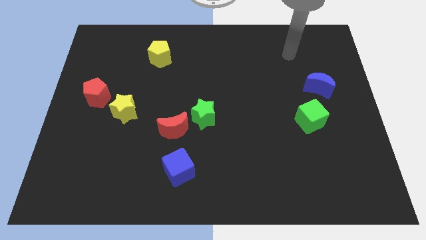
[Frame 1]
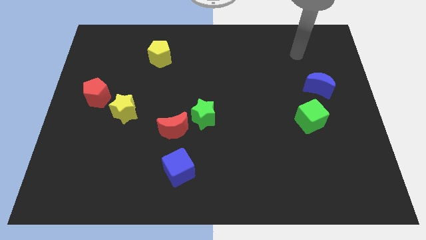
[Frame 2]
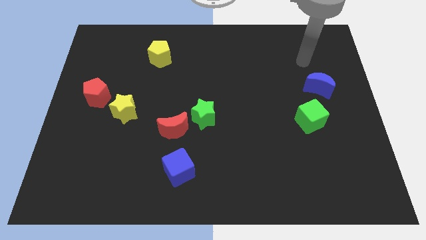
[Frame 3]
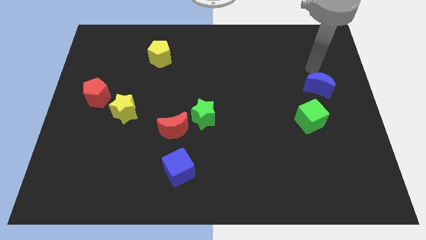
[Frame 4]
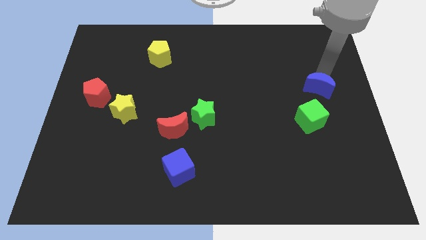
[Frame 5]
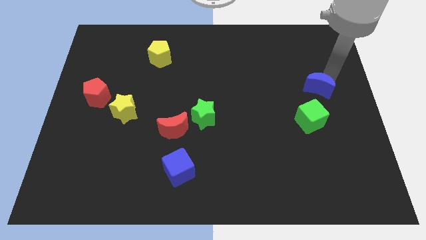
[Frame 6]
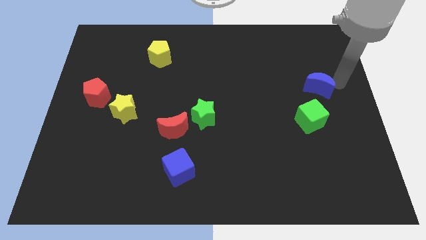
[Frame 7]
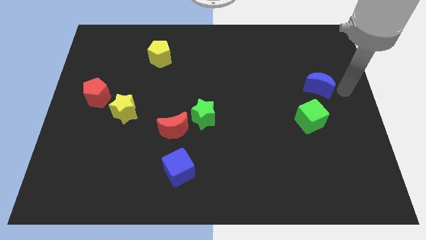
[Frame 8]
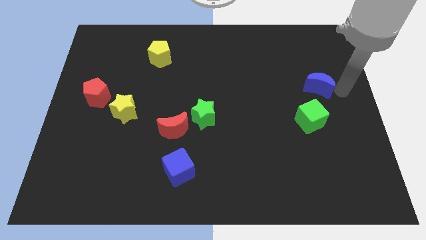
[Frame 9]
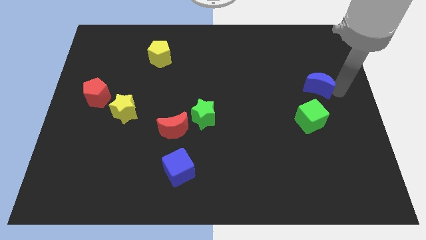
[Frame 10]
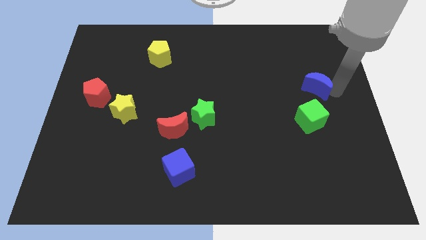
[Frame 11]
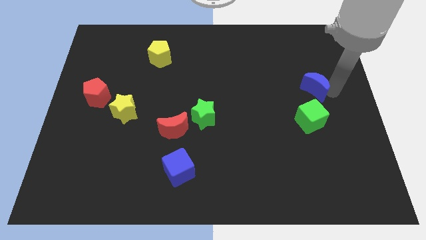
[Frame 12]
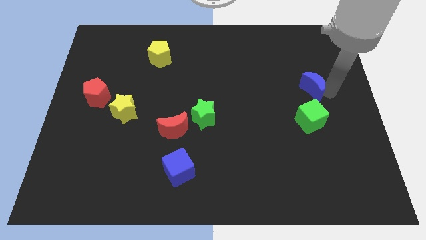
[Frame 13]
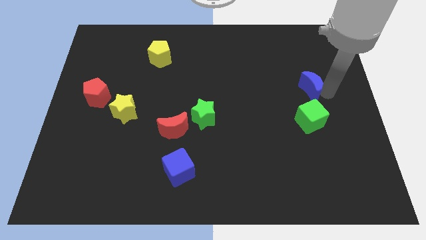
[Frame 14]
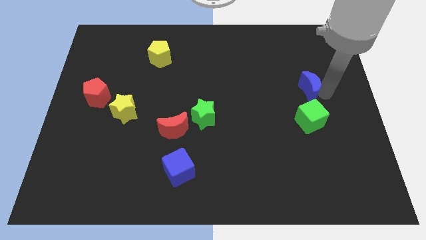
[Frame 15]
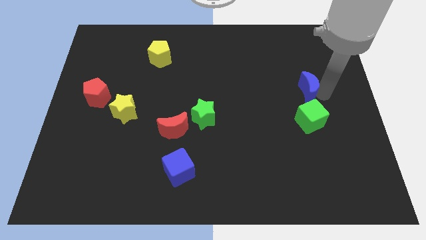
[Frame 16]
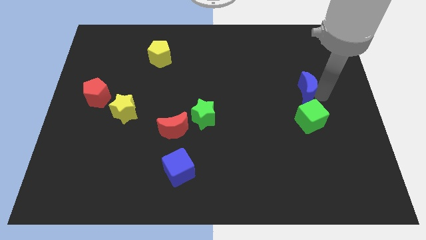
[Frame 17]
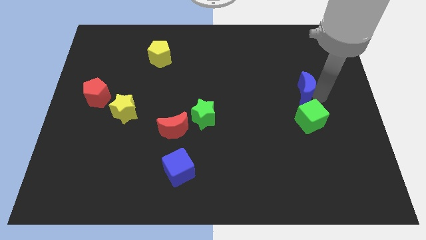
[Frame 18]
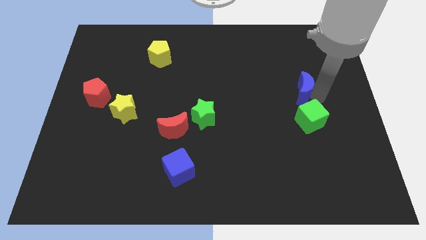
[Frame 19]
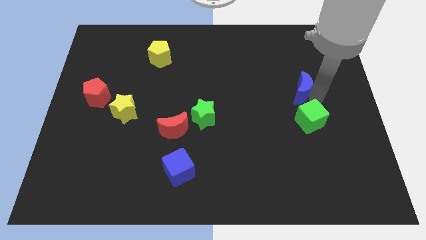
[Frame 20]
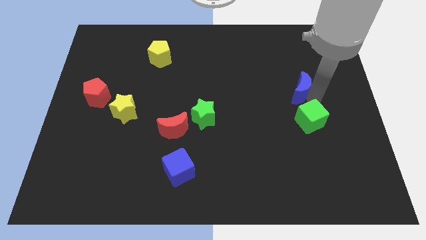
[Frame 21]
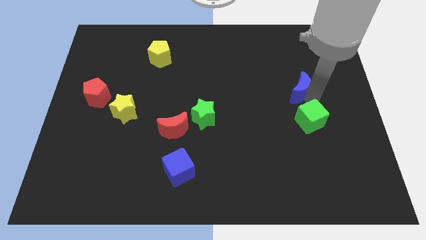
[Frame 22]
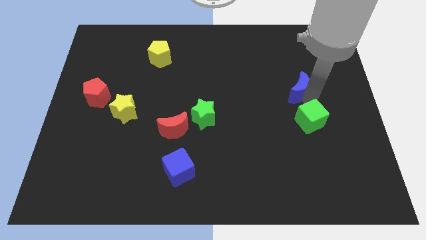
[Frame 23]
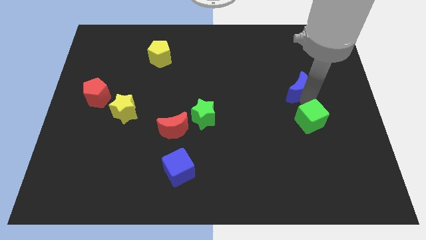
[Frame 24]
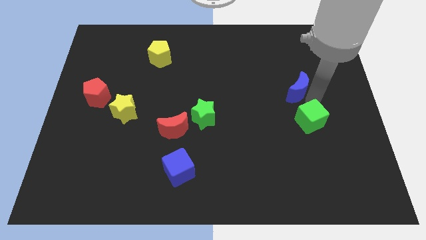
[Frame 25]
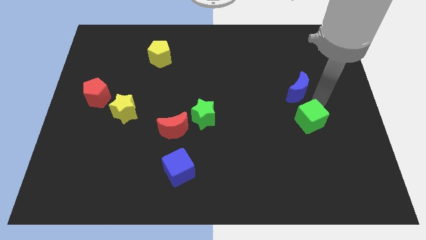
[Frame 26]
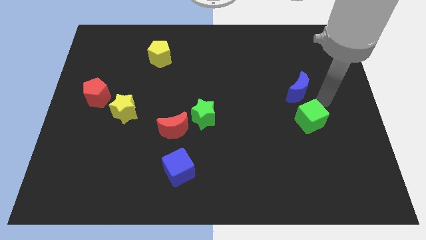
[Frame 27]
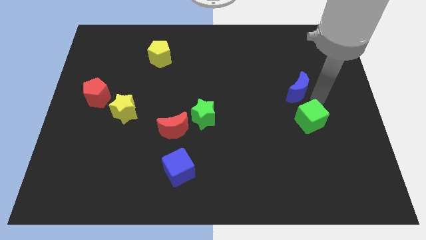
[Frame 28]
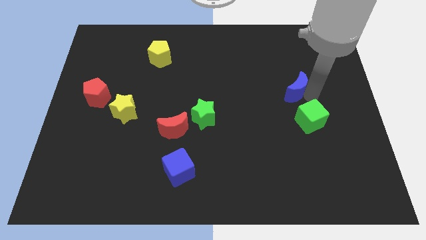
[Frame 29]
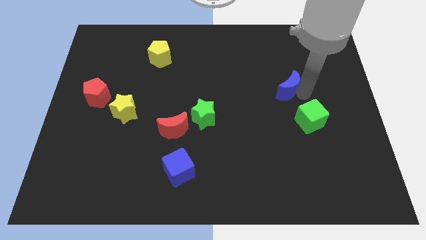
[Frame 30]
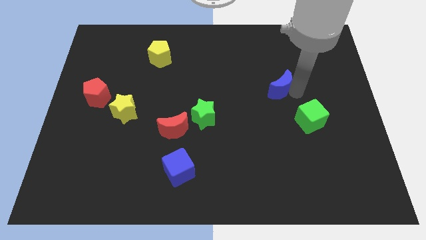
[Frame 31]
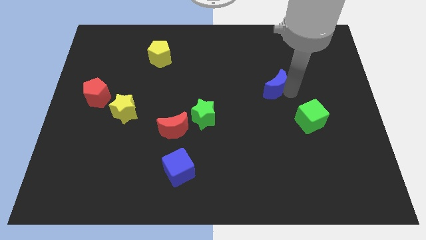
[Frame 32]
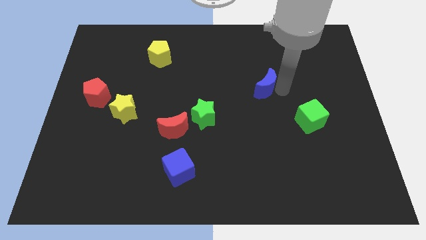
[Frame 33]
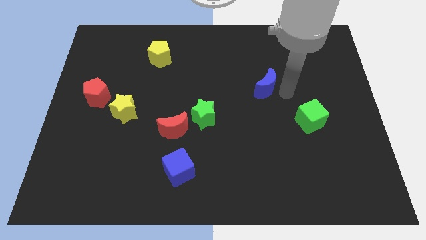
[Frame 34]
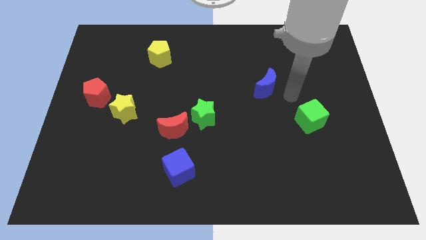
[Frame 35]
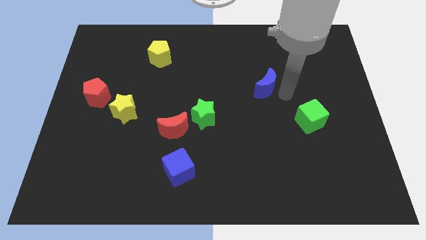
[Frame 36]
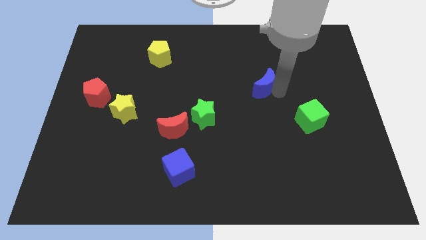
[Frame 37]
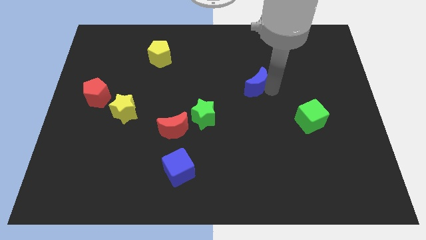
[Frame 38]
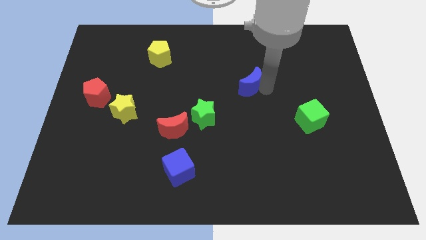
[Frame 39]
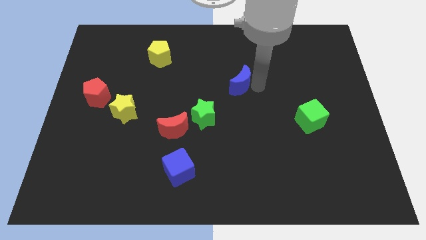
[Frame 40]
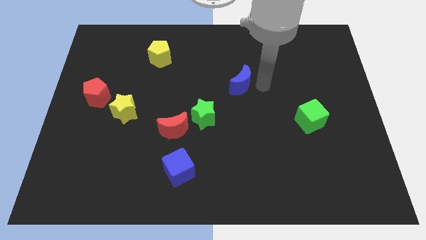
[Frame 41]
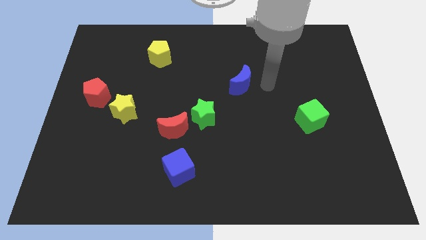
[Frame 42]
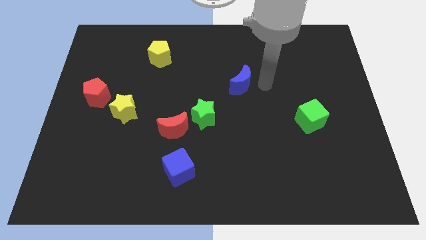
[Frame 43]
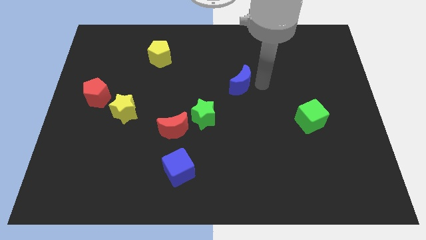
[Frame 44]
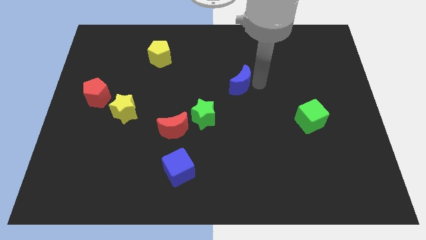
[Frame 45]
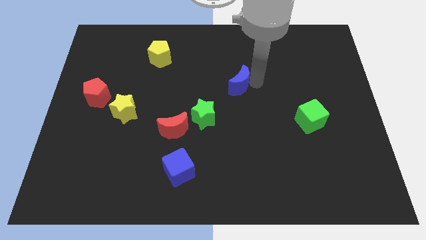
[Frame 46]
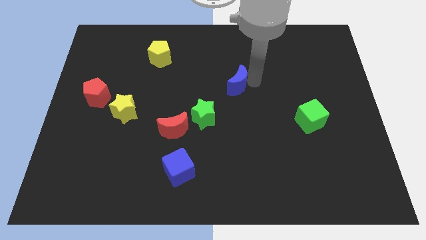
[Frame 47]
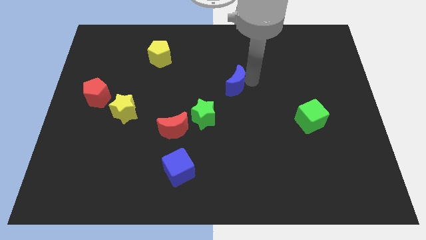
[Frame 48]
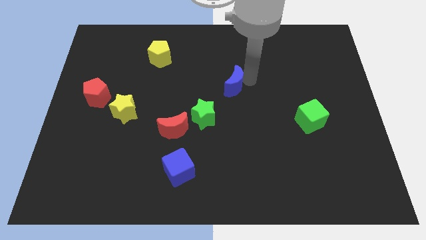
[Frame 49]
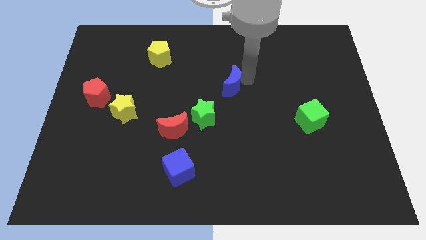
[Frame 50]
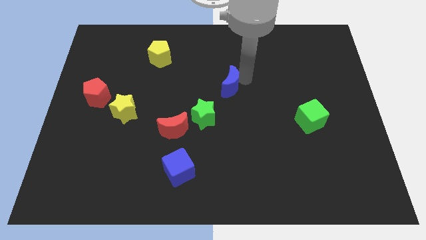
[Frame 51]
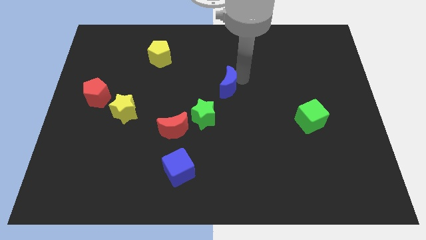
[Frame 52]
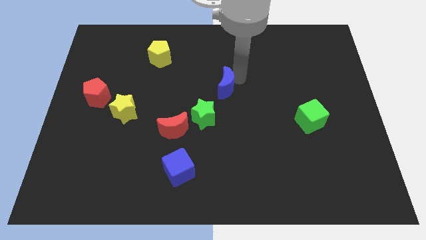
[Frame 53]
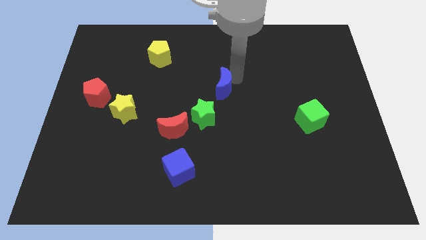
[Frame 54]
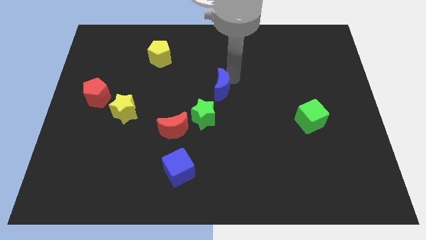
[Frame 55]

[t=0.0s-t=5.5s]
put the blue moon to the top side of the green star

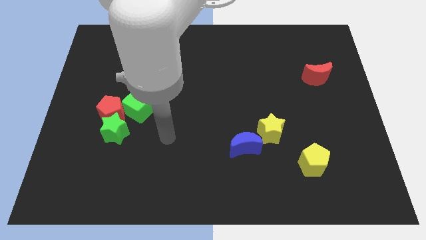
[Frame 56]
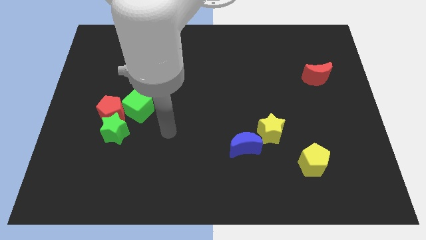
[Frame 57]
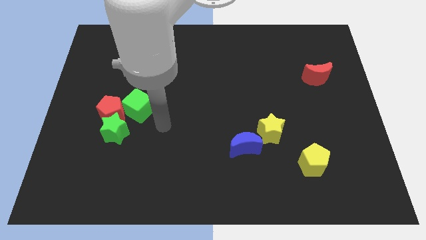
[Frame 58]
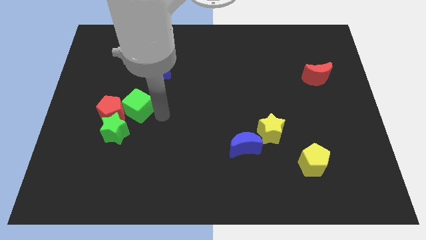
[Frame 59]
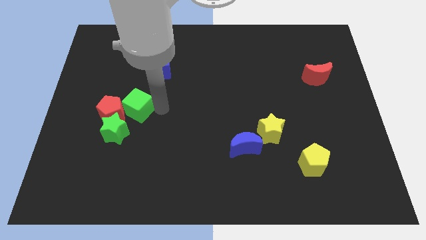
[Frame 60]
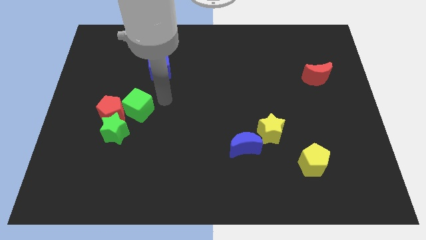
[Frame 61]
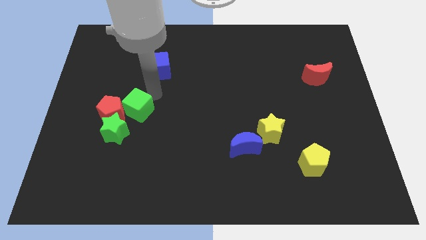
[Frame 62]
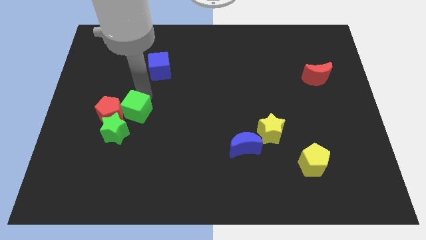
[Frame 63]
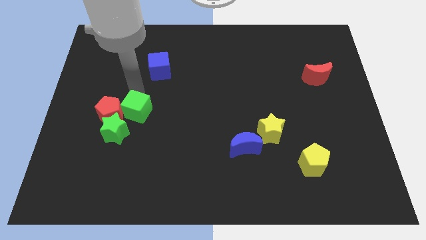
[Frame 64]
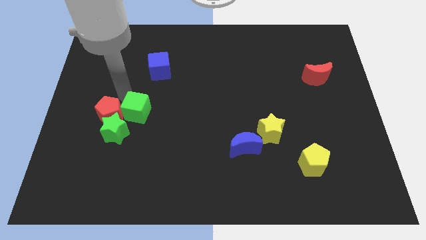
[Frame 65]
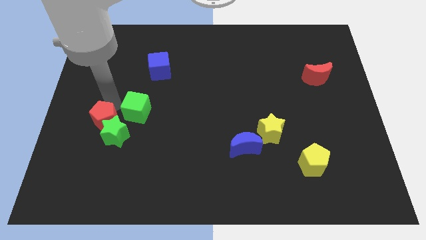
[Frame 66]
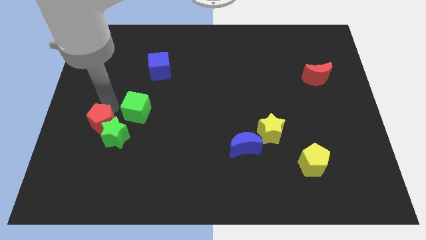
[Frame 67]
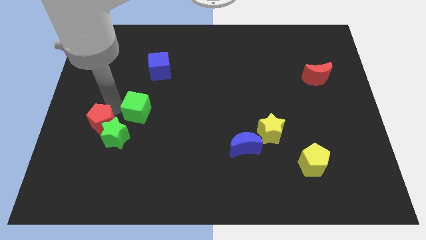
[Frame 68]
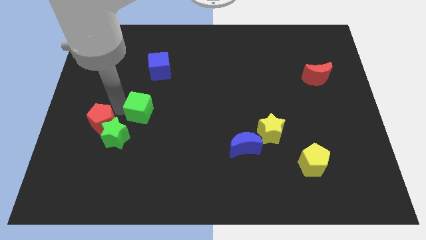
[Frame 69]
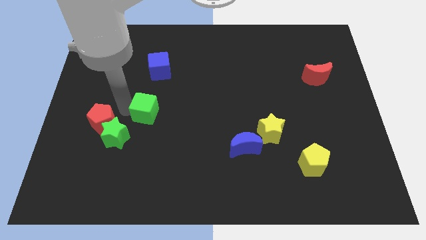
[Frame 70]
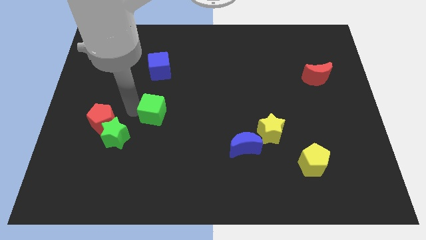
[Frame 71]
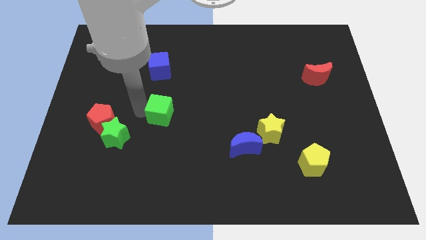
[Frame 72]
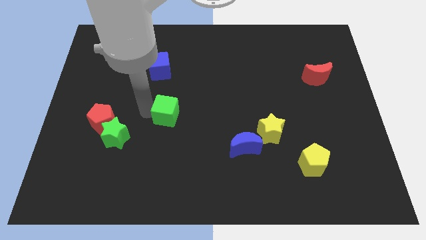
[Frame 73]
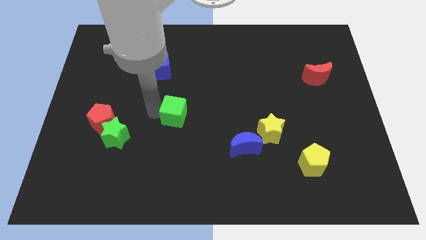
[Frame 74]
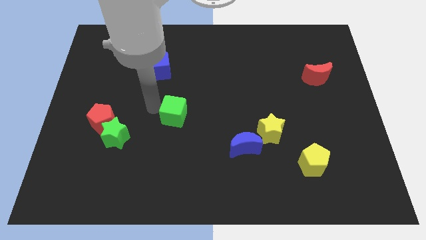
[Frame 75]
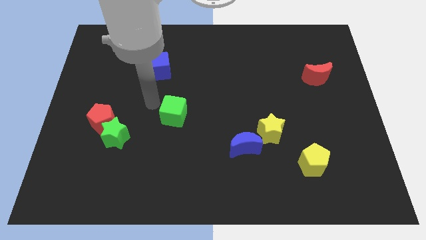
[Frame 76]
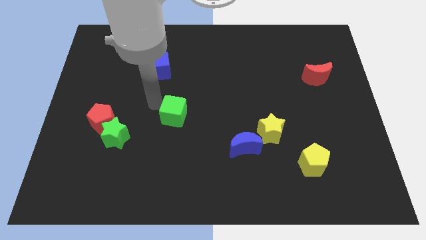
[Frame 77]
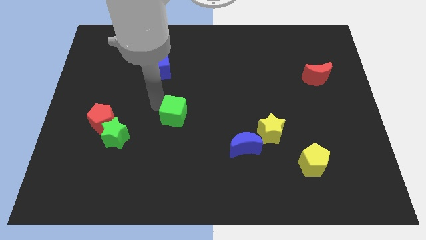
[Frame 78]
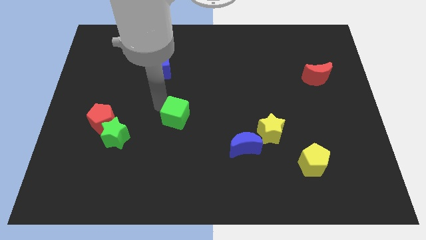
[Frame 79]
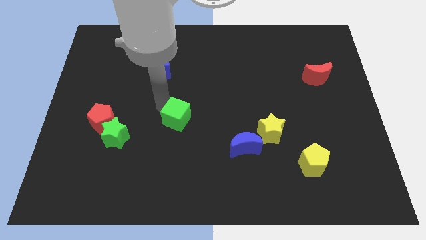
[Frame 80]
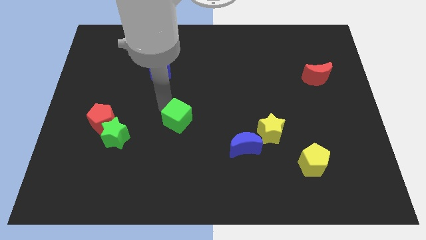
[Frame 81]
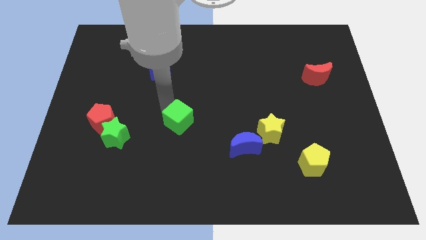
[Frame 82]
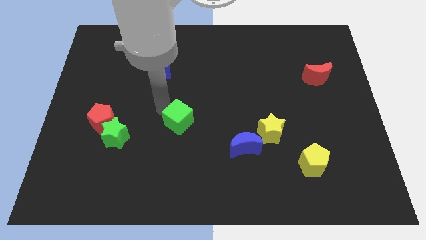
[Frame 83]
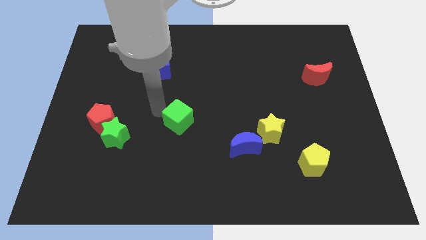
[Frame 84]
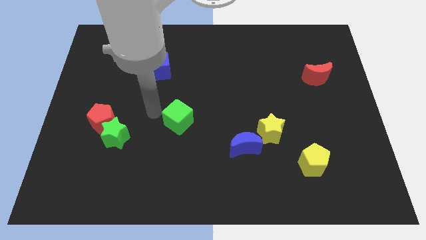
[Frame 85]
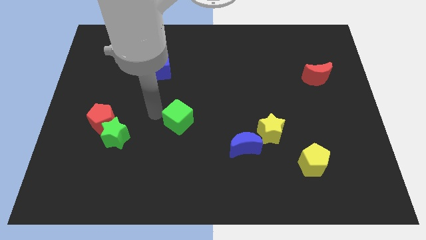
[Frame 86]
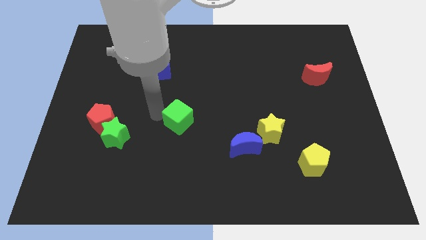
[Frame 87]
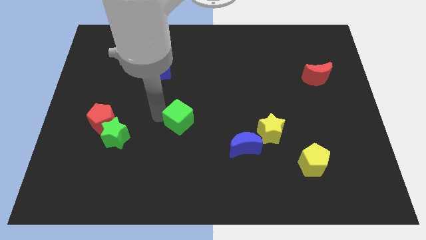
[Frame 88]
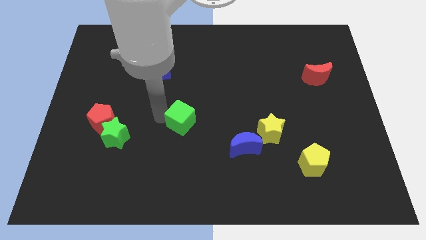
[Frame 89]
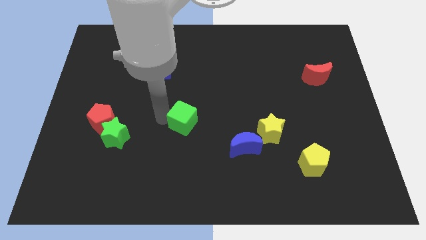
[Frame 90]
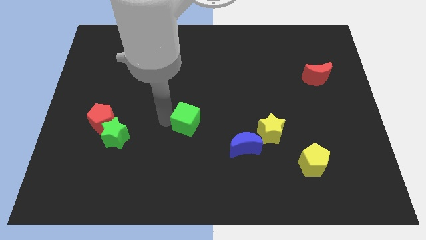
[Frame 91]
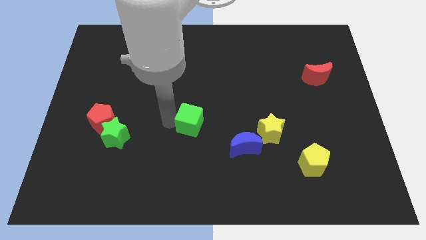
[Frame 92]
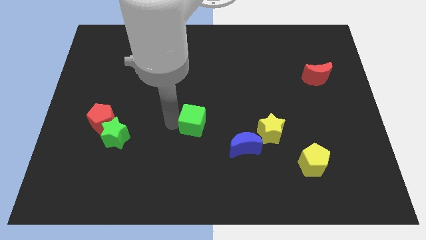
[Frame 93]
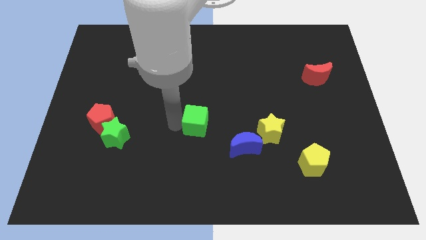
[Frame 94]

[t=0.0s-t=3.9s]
slide the green cube to the top left side of the blue moon
